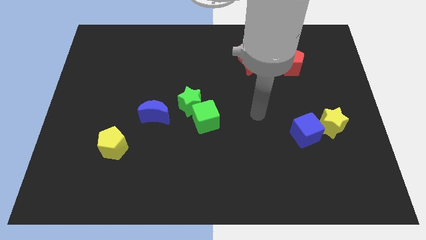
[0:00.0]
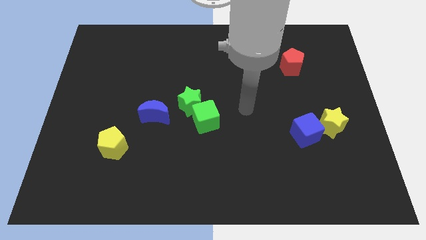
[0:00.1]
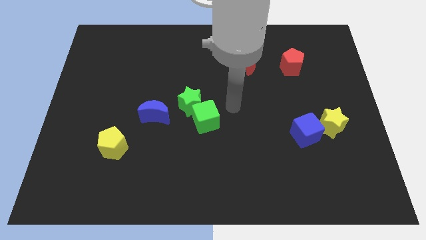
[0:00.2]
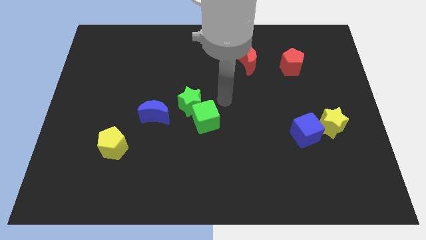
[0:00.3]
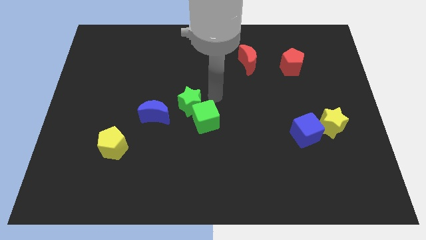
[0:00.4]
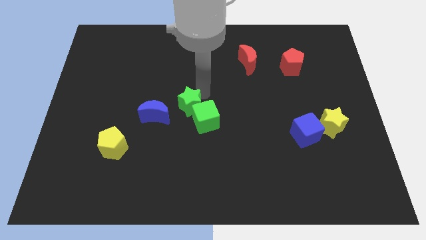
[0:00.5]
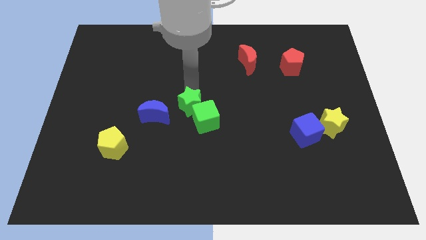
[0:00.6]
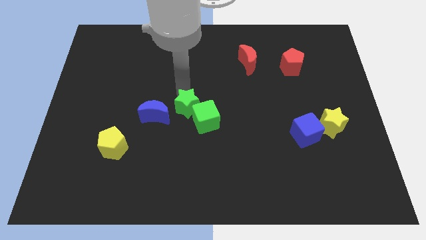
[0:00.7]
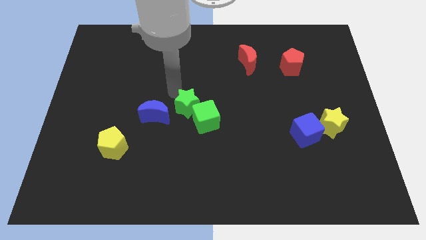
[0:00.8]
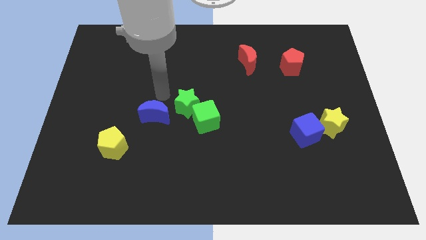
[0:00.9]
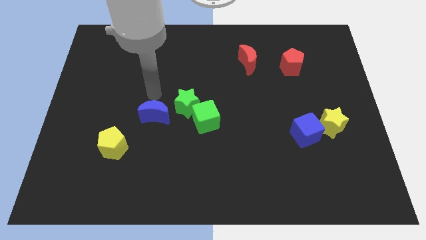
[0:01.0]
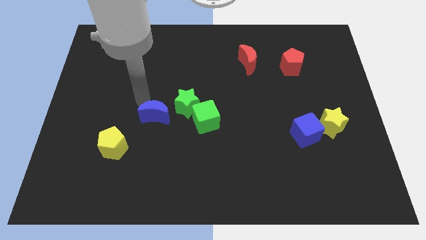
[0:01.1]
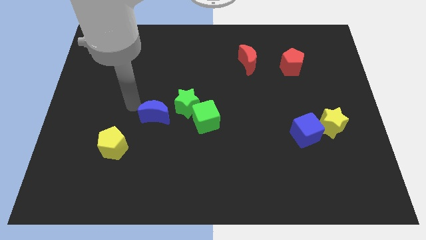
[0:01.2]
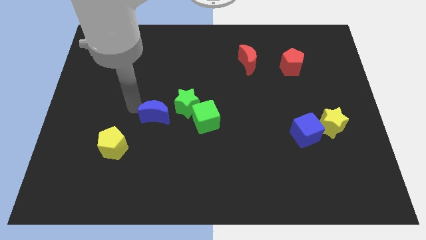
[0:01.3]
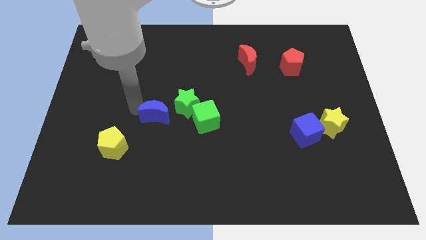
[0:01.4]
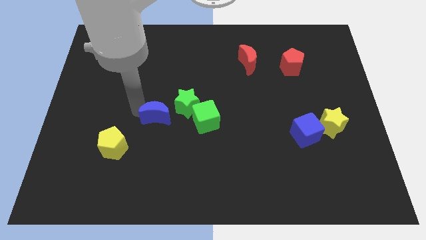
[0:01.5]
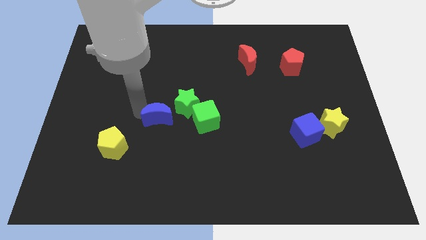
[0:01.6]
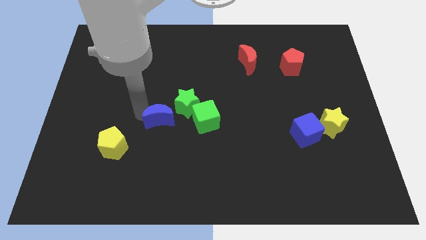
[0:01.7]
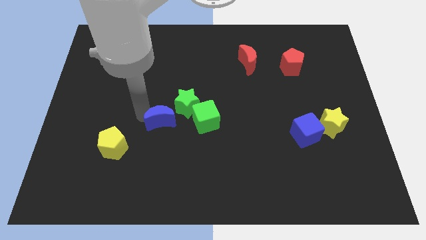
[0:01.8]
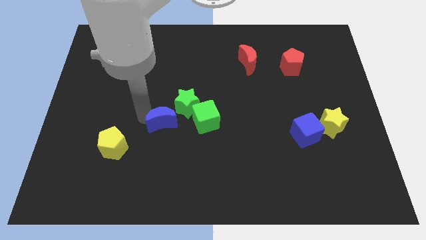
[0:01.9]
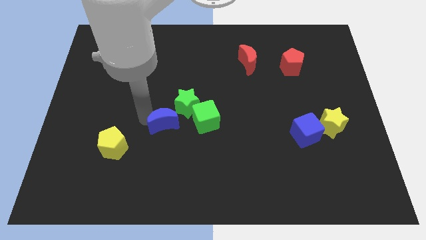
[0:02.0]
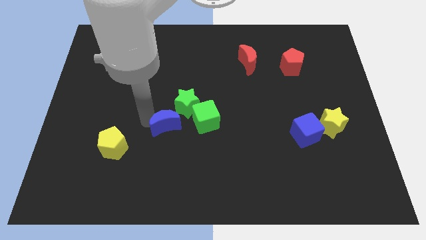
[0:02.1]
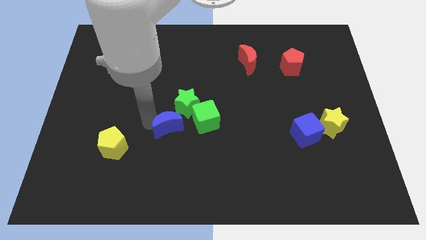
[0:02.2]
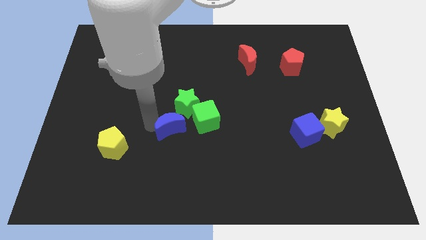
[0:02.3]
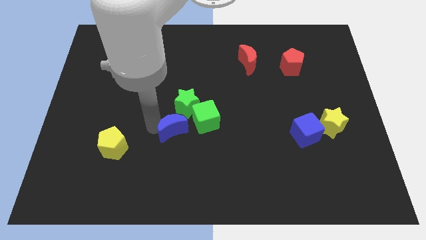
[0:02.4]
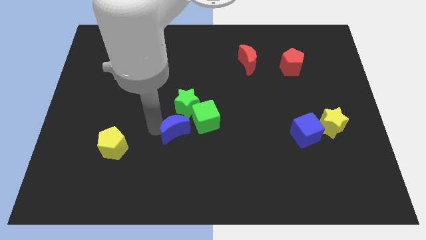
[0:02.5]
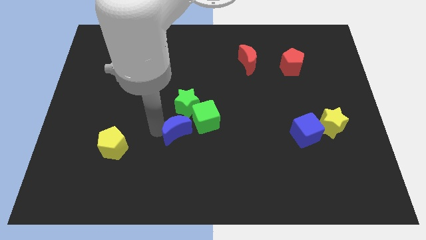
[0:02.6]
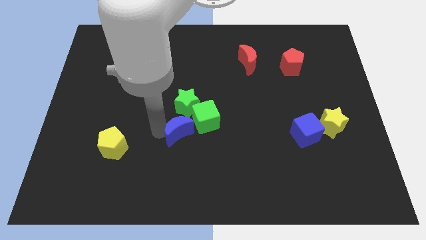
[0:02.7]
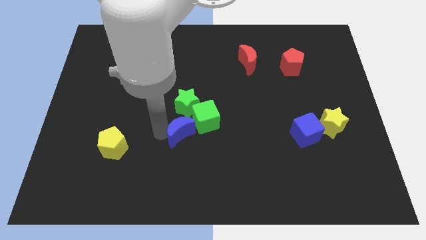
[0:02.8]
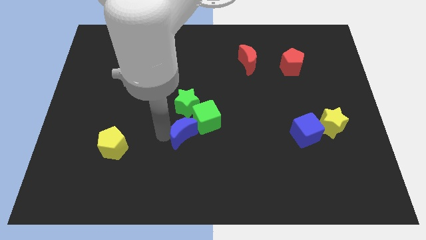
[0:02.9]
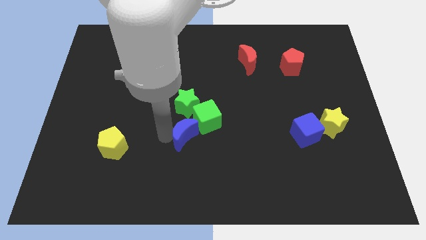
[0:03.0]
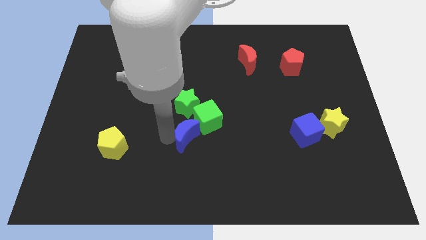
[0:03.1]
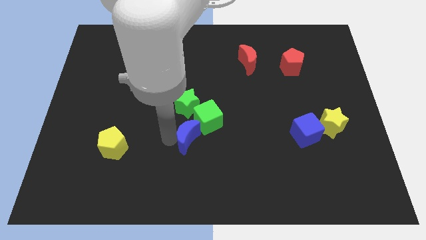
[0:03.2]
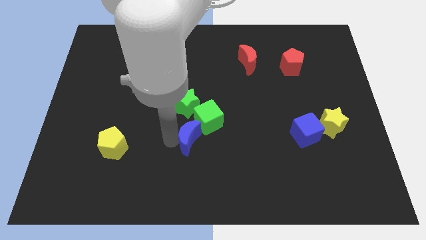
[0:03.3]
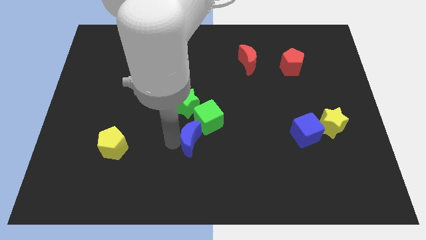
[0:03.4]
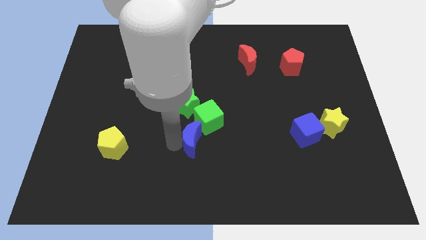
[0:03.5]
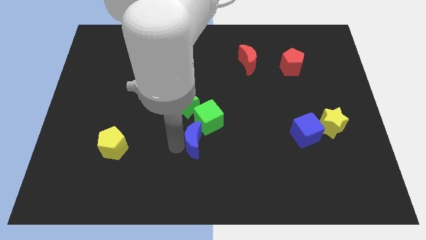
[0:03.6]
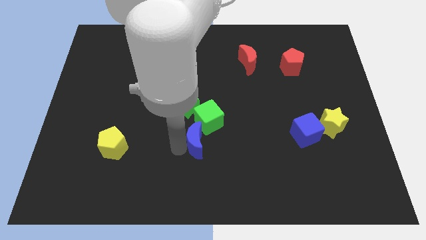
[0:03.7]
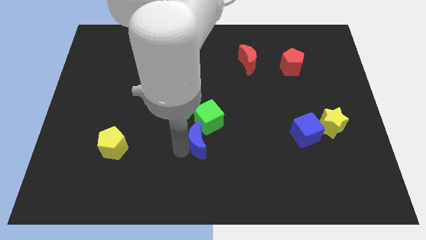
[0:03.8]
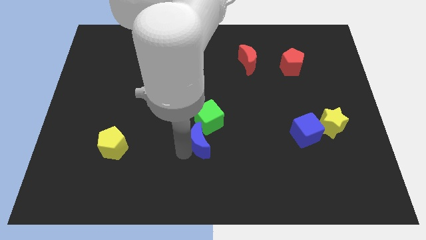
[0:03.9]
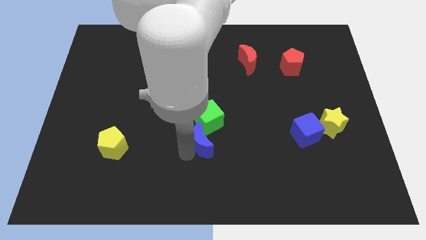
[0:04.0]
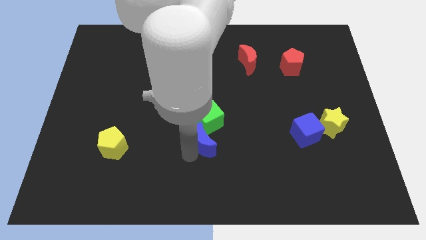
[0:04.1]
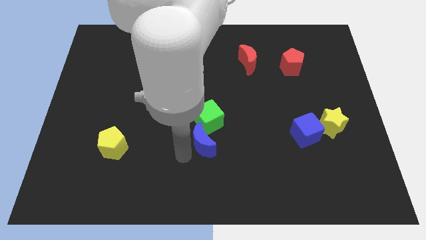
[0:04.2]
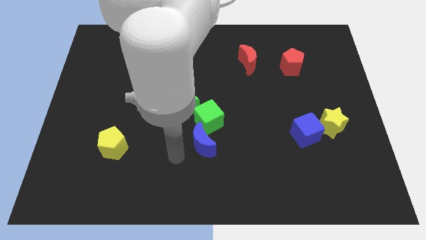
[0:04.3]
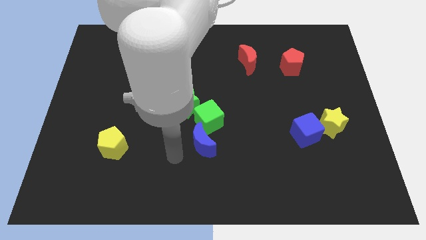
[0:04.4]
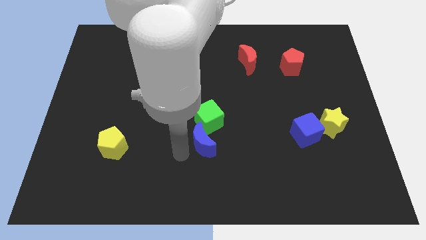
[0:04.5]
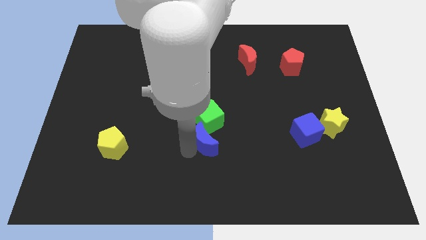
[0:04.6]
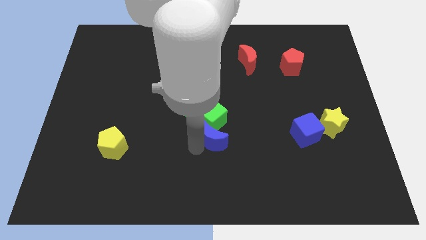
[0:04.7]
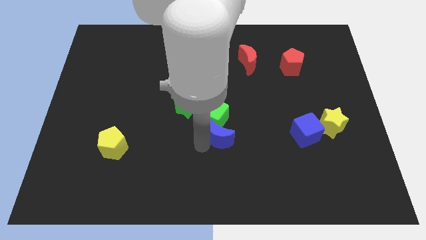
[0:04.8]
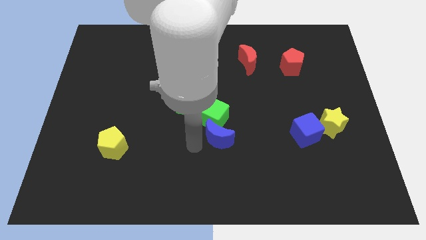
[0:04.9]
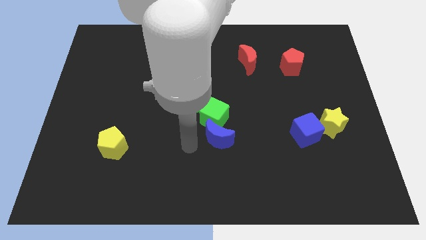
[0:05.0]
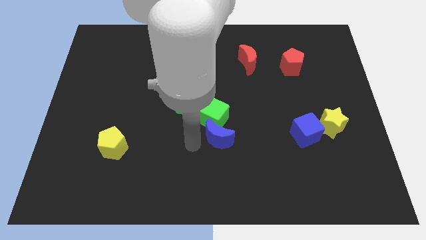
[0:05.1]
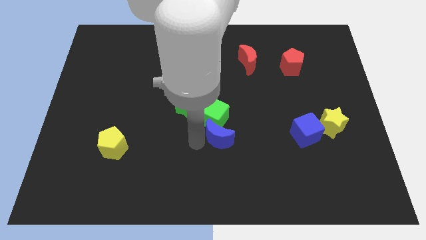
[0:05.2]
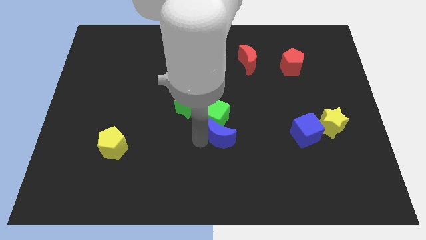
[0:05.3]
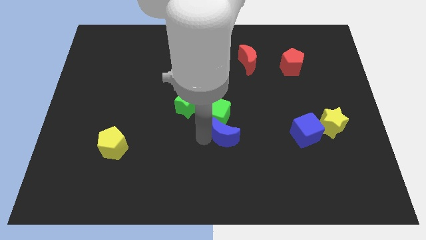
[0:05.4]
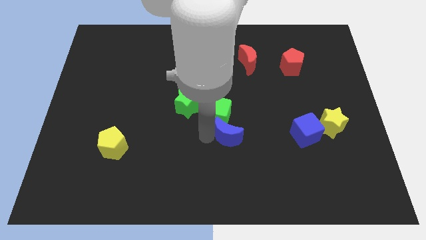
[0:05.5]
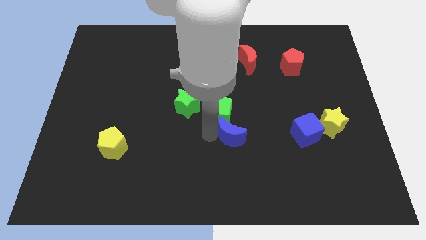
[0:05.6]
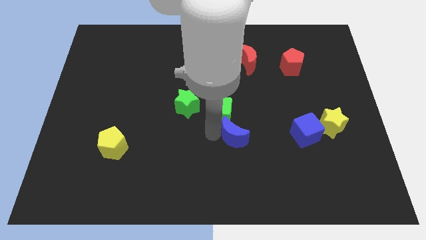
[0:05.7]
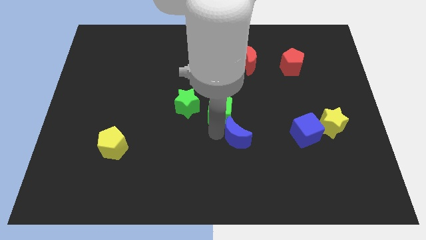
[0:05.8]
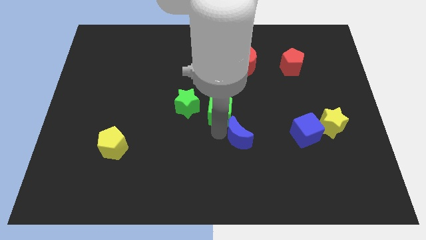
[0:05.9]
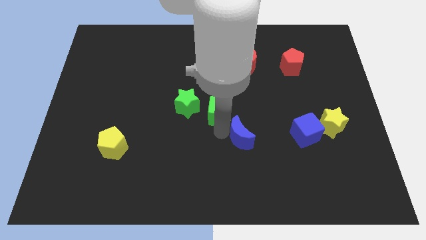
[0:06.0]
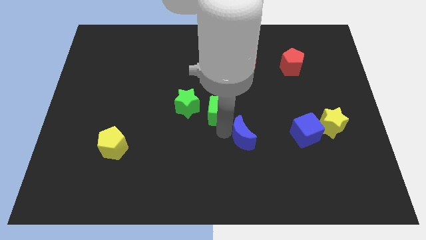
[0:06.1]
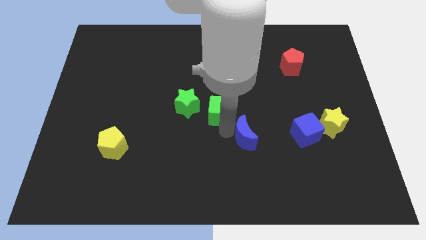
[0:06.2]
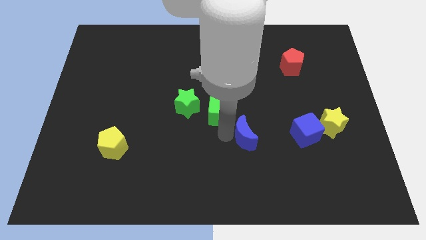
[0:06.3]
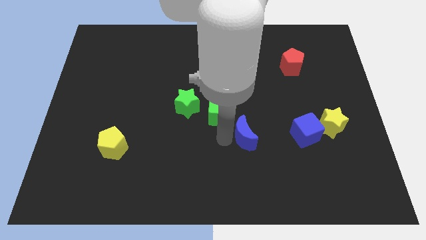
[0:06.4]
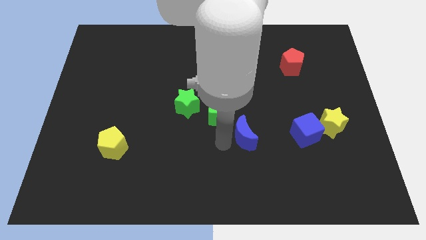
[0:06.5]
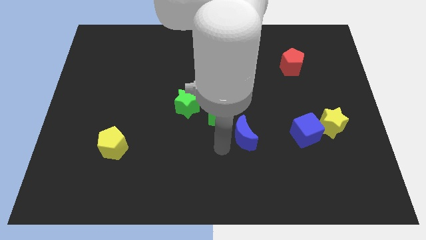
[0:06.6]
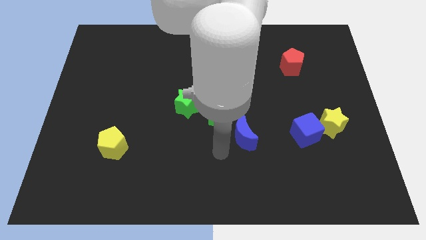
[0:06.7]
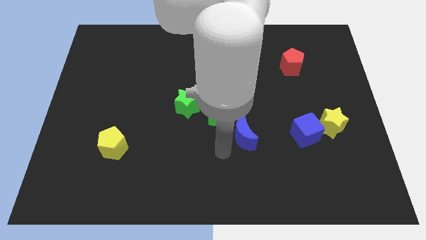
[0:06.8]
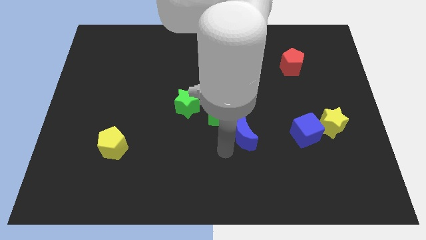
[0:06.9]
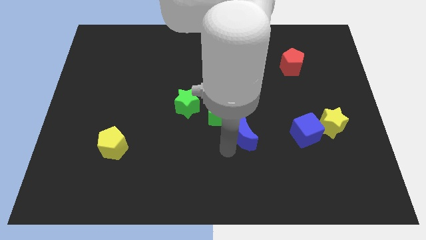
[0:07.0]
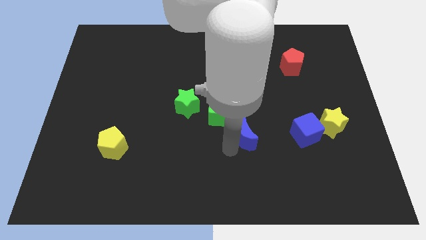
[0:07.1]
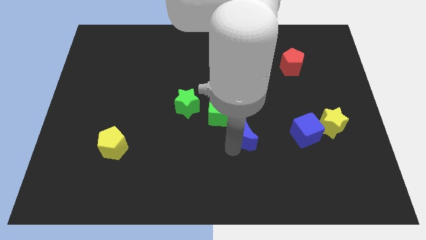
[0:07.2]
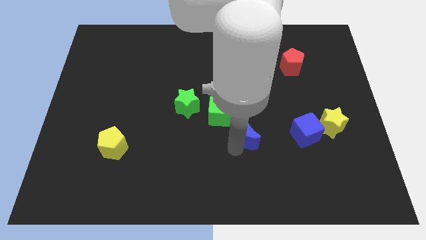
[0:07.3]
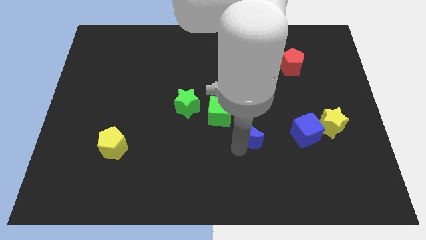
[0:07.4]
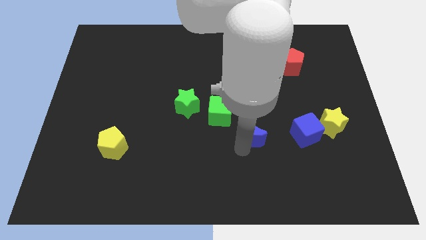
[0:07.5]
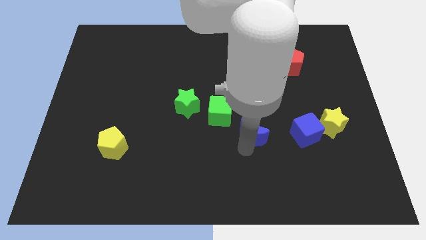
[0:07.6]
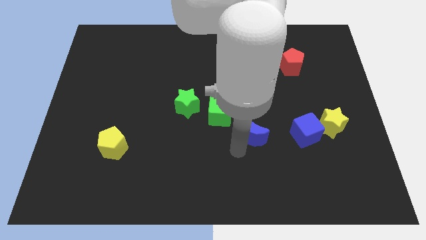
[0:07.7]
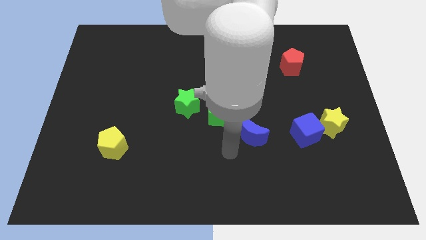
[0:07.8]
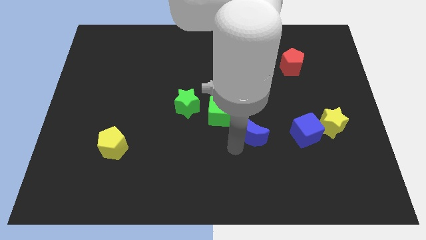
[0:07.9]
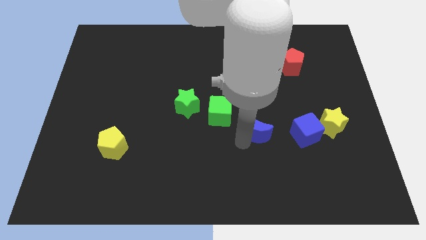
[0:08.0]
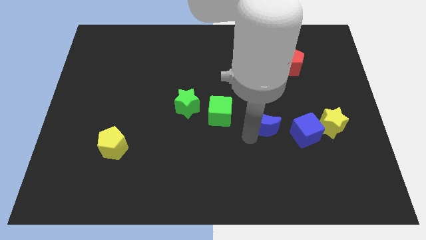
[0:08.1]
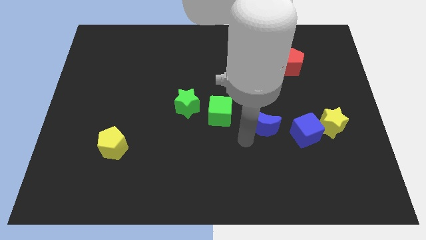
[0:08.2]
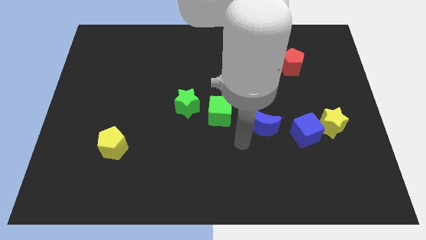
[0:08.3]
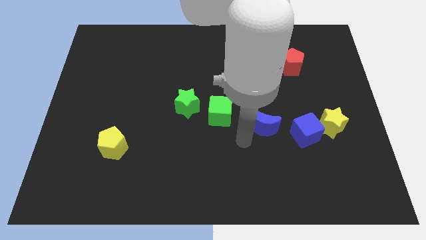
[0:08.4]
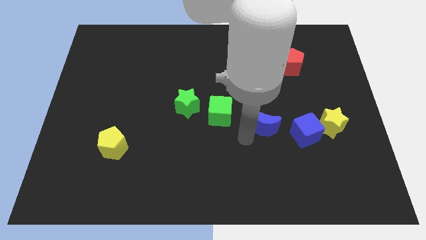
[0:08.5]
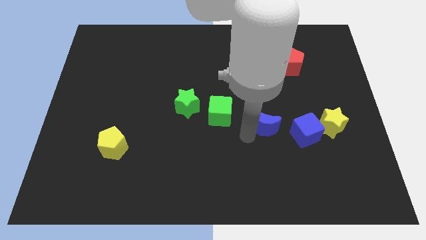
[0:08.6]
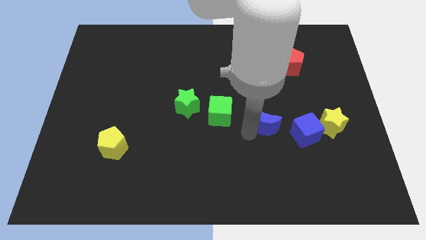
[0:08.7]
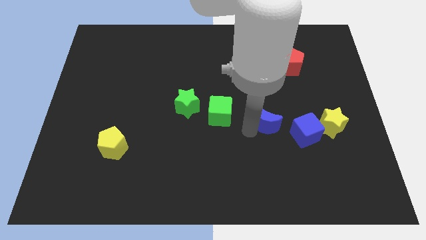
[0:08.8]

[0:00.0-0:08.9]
move the blue moon to the top left of the blue cube
